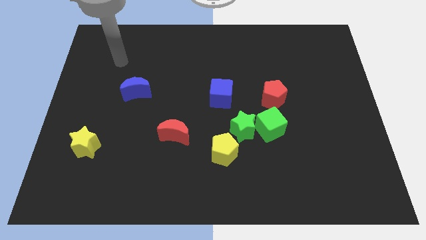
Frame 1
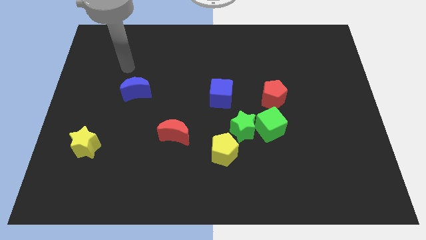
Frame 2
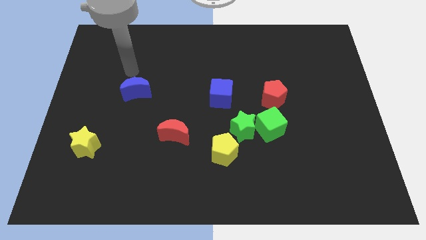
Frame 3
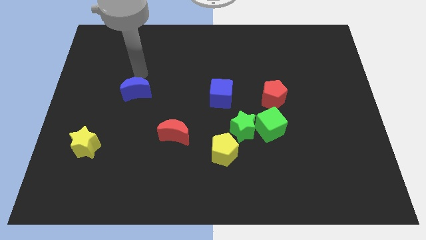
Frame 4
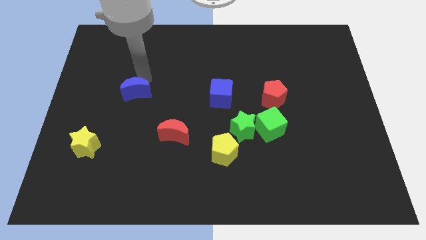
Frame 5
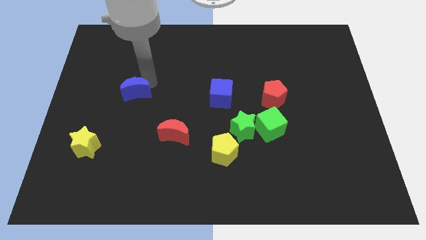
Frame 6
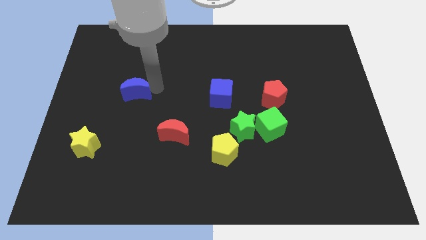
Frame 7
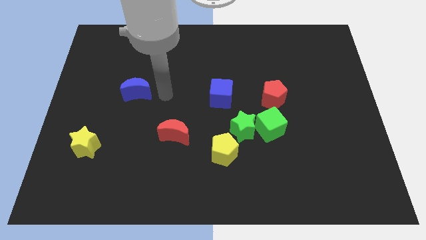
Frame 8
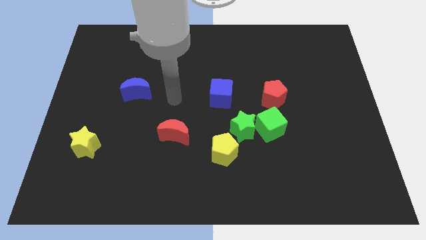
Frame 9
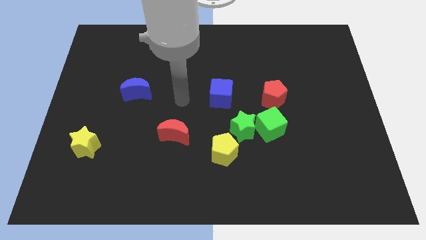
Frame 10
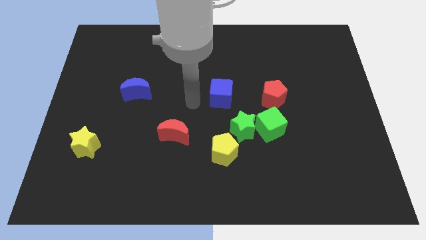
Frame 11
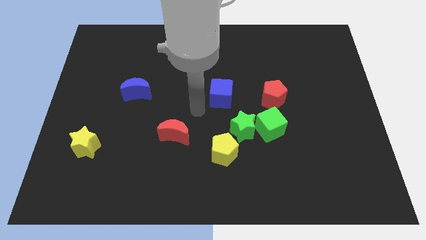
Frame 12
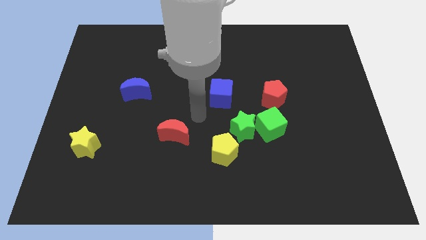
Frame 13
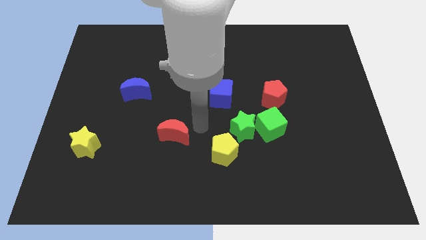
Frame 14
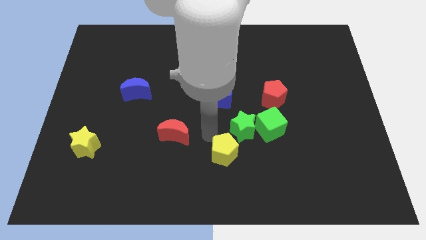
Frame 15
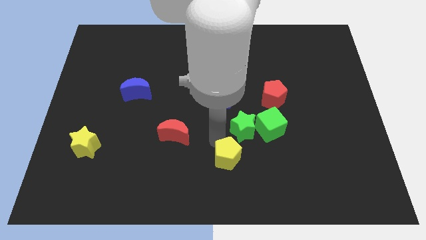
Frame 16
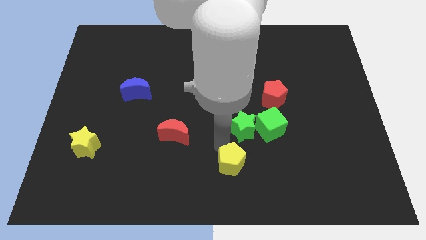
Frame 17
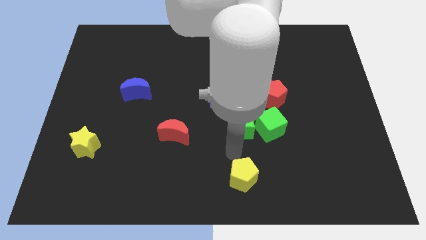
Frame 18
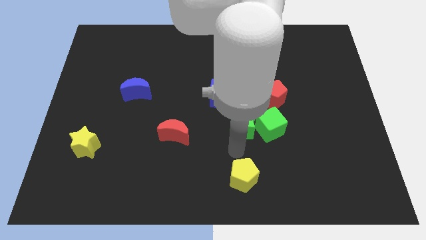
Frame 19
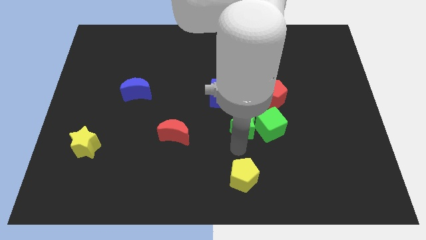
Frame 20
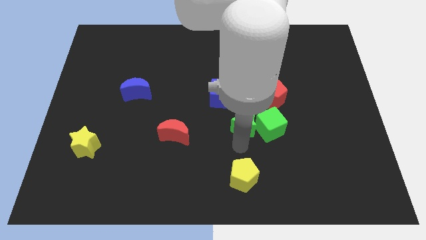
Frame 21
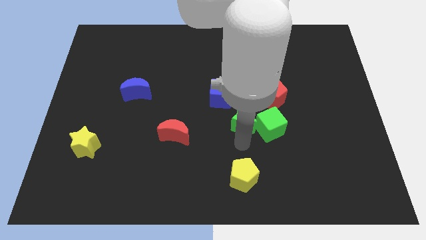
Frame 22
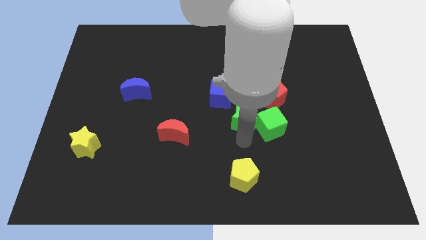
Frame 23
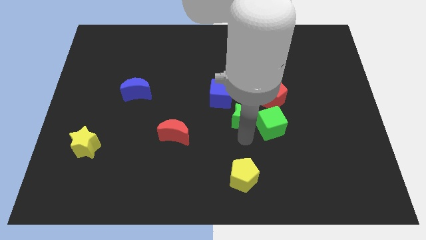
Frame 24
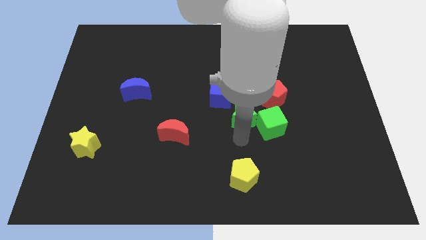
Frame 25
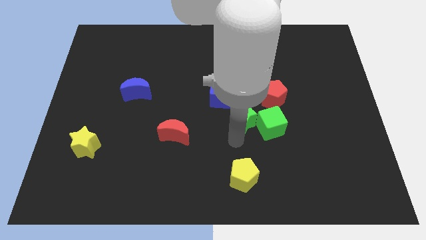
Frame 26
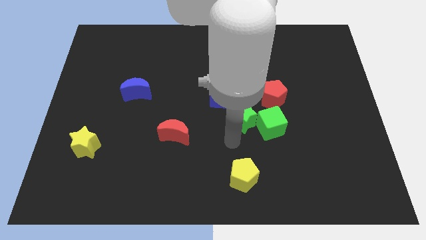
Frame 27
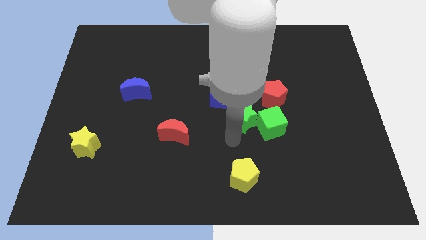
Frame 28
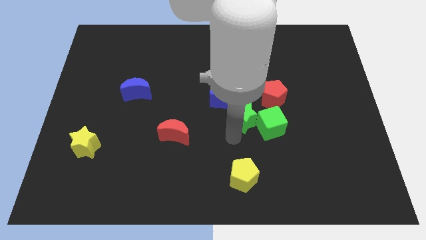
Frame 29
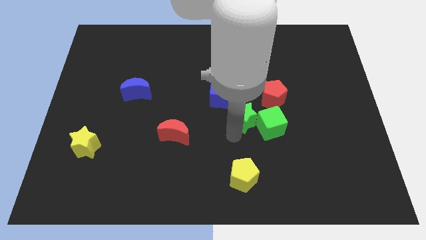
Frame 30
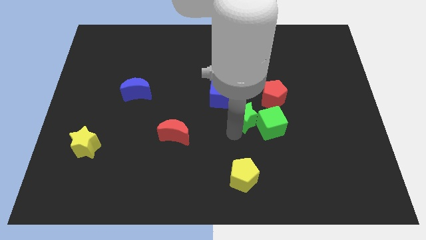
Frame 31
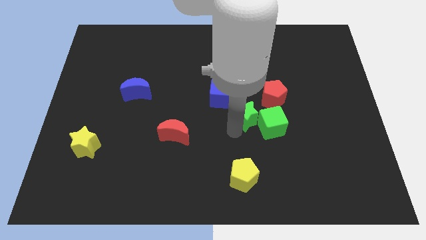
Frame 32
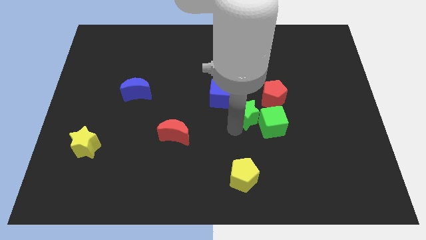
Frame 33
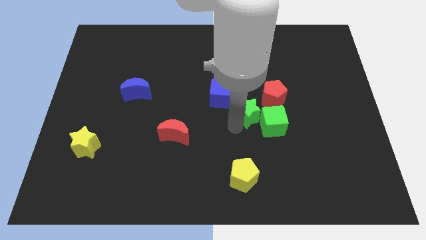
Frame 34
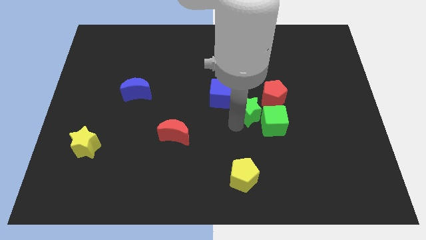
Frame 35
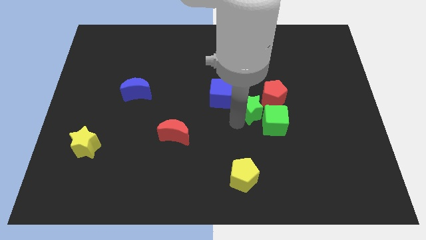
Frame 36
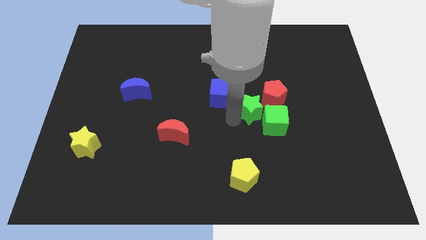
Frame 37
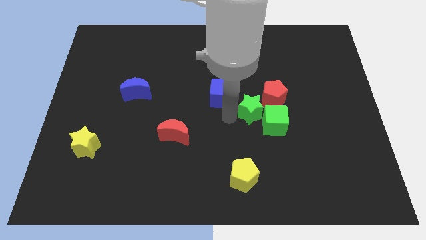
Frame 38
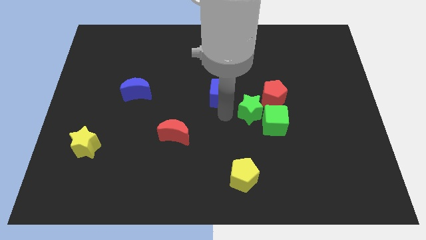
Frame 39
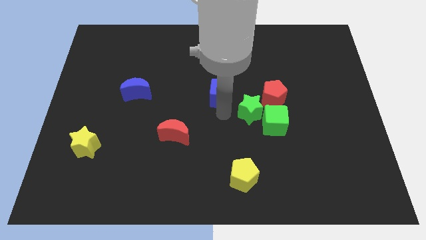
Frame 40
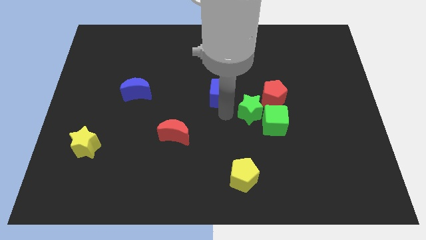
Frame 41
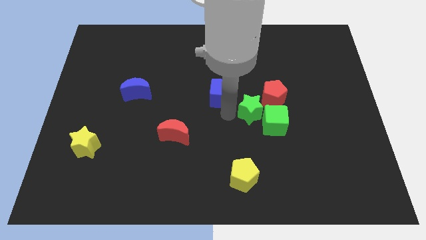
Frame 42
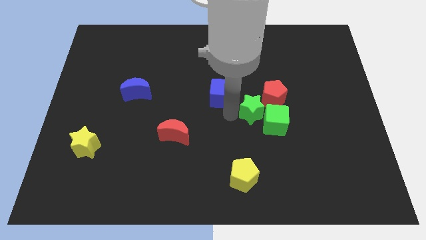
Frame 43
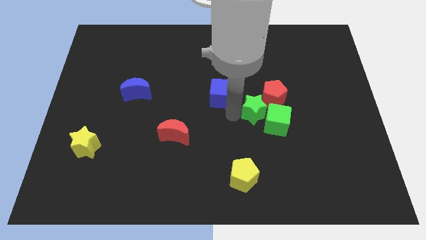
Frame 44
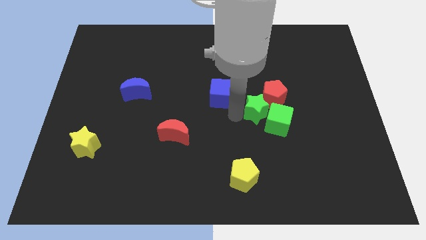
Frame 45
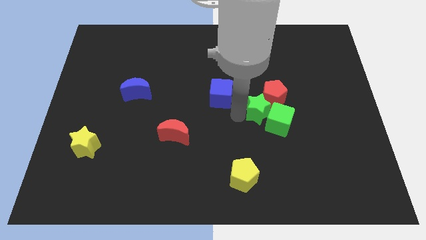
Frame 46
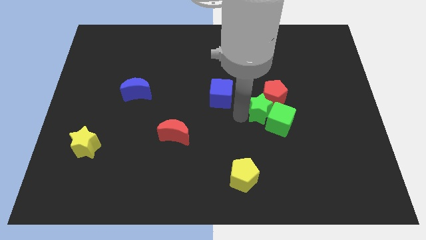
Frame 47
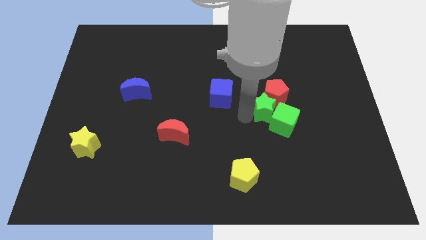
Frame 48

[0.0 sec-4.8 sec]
push the green star upwards and to the right diagonally slightly

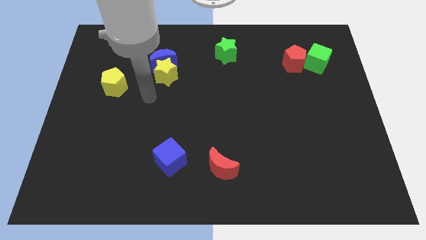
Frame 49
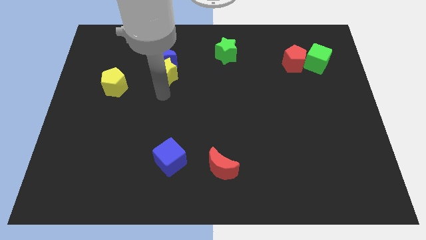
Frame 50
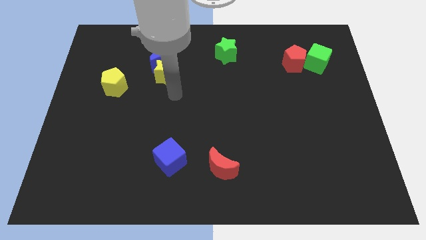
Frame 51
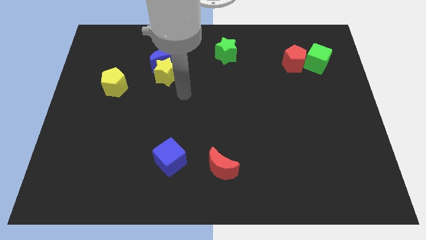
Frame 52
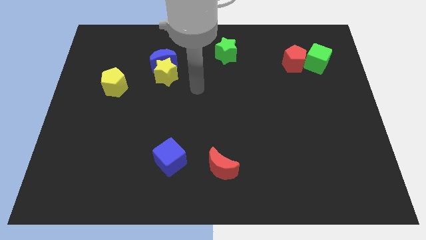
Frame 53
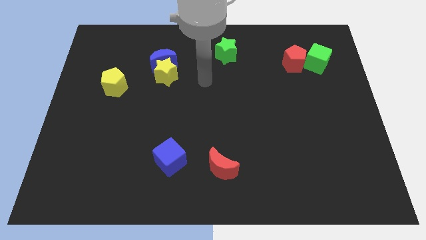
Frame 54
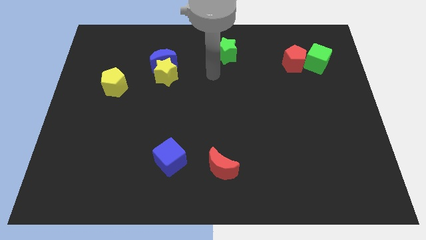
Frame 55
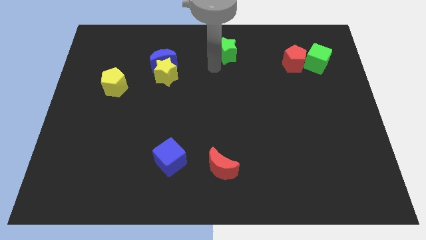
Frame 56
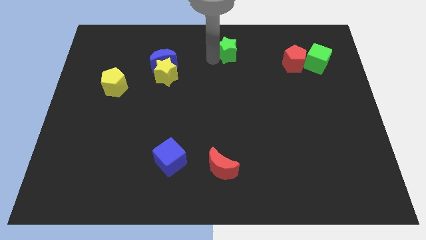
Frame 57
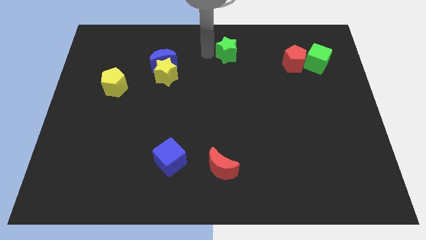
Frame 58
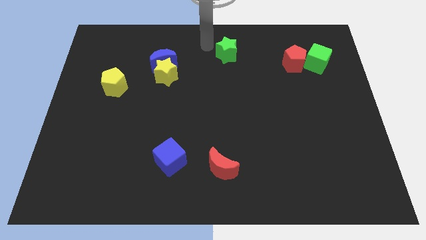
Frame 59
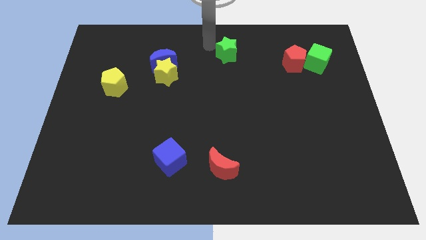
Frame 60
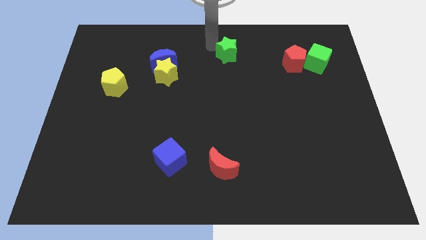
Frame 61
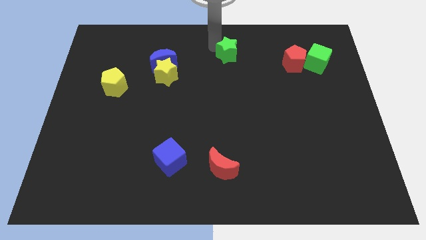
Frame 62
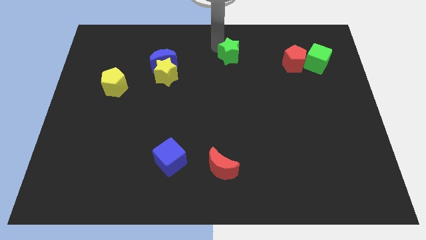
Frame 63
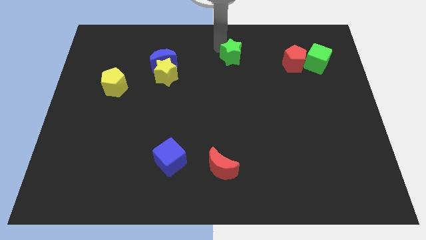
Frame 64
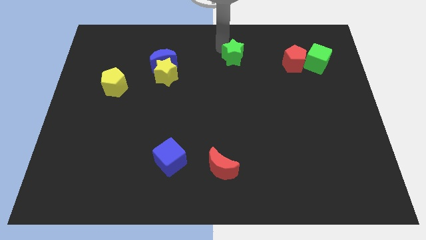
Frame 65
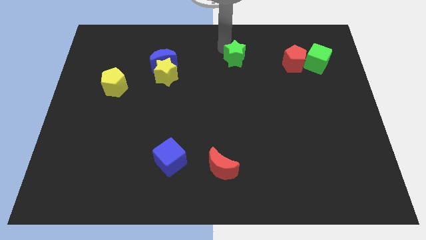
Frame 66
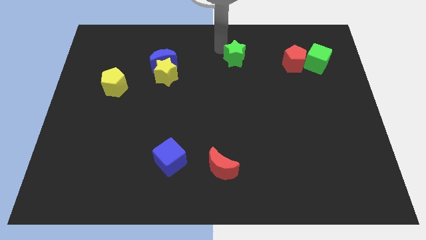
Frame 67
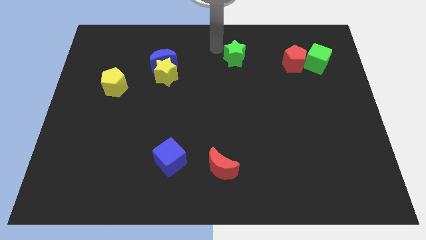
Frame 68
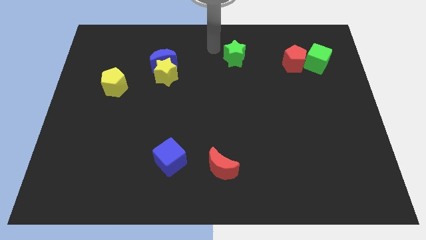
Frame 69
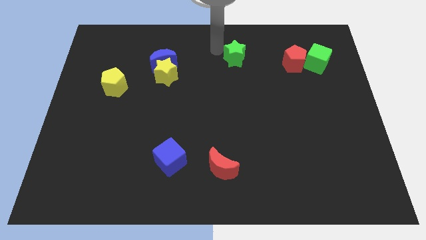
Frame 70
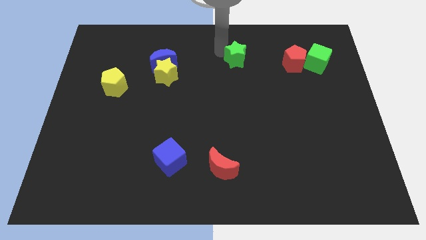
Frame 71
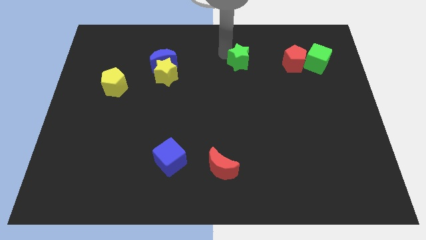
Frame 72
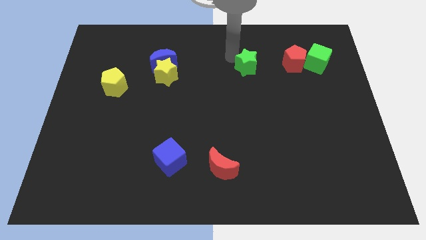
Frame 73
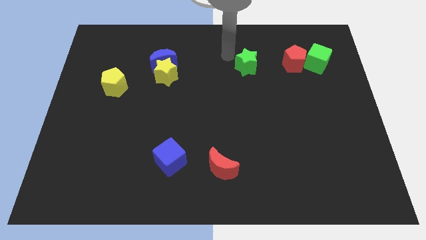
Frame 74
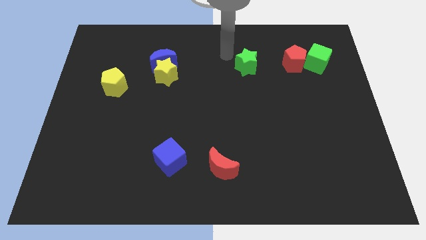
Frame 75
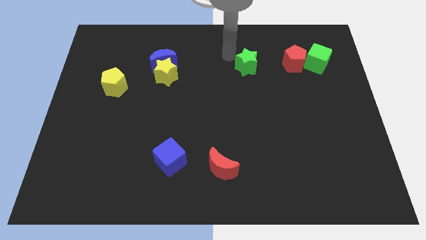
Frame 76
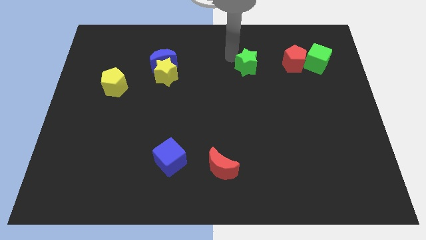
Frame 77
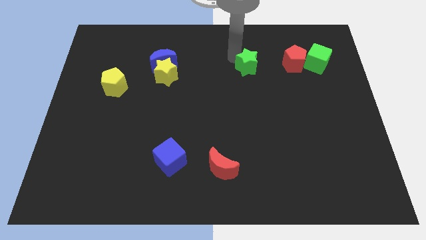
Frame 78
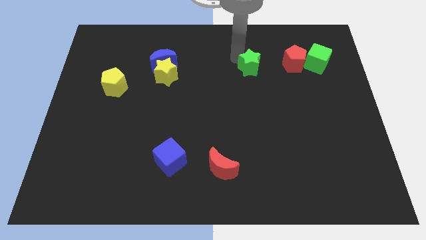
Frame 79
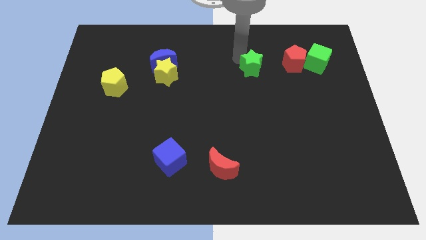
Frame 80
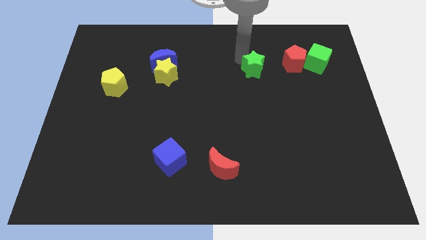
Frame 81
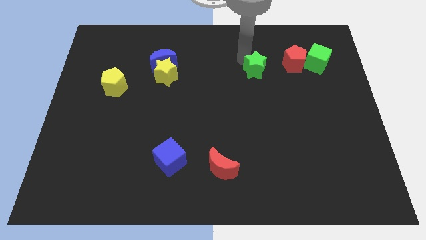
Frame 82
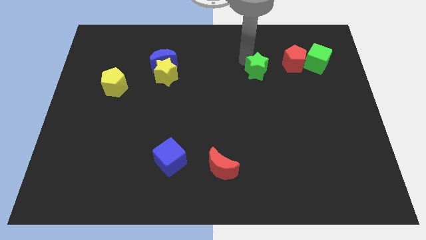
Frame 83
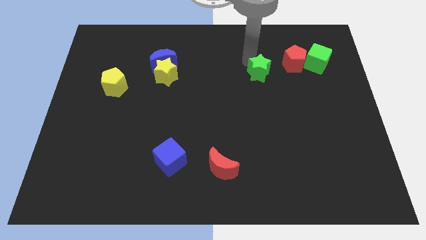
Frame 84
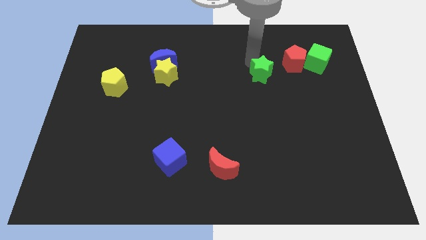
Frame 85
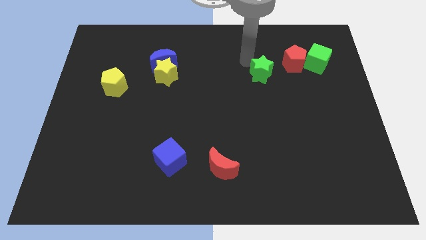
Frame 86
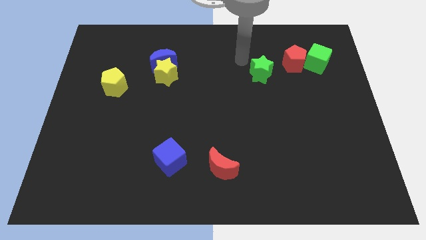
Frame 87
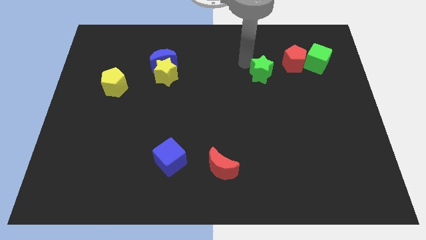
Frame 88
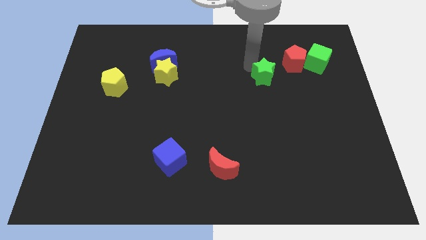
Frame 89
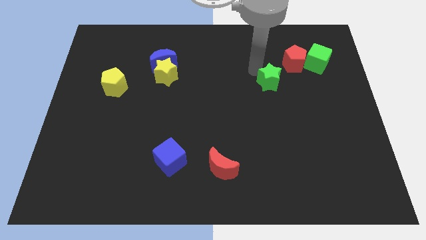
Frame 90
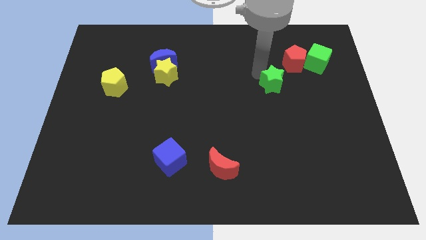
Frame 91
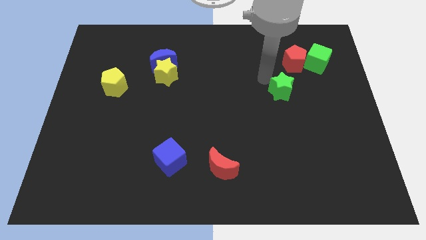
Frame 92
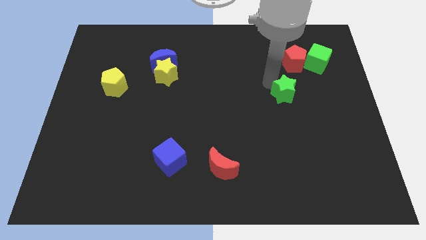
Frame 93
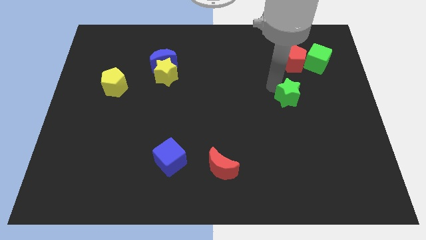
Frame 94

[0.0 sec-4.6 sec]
move the green star down and right diagonally
